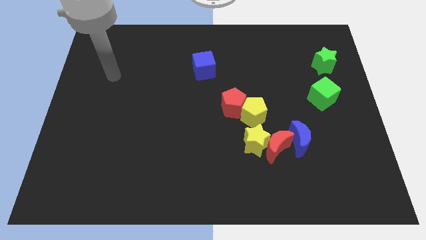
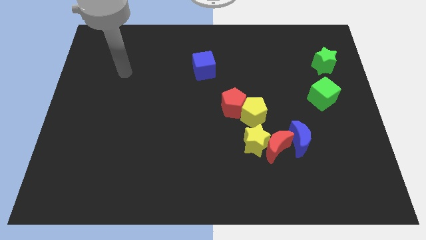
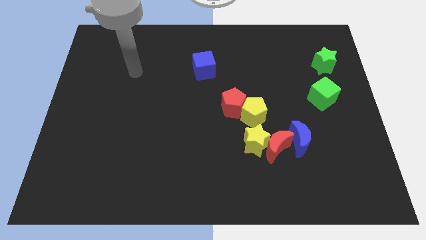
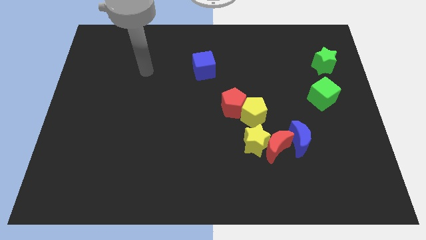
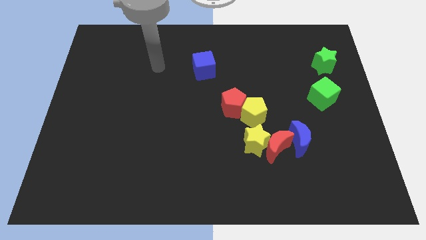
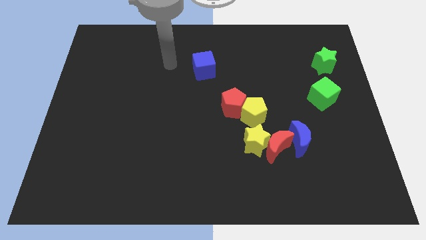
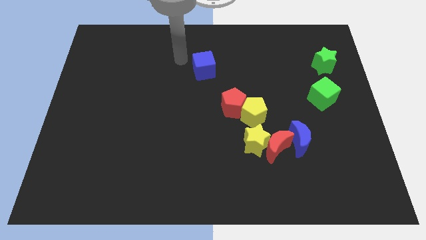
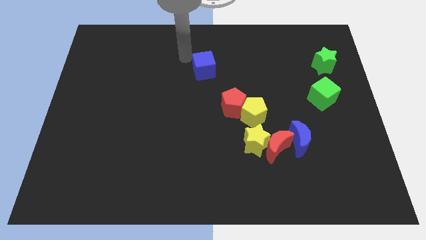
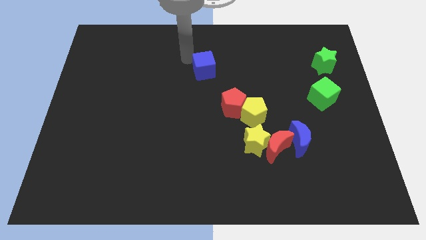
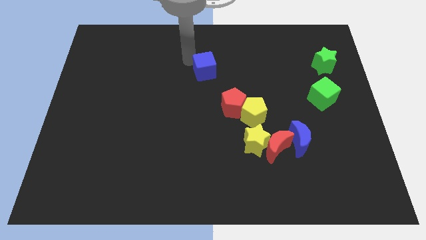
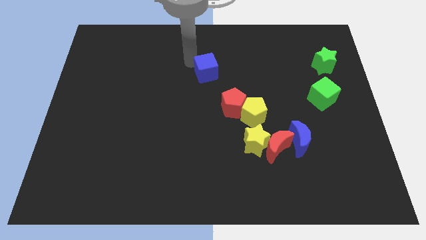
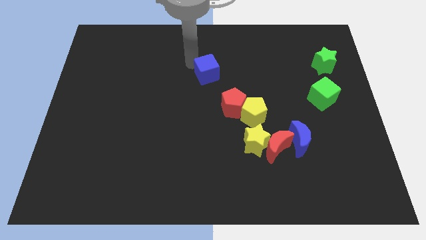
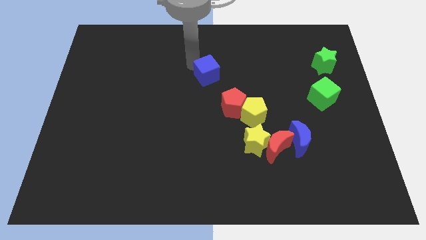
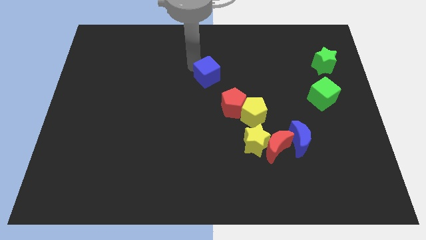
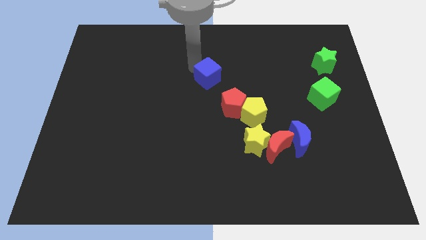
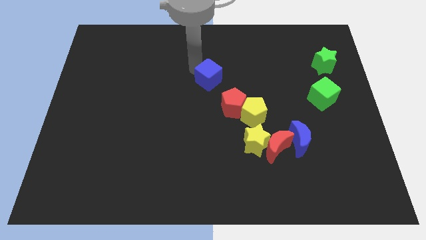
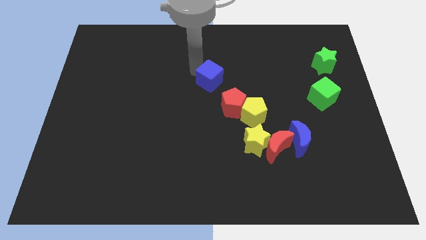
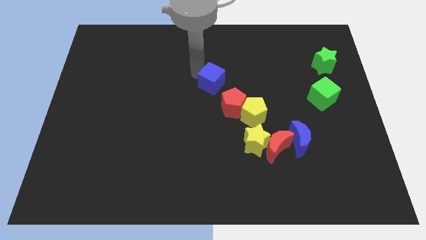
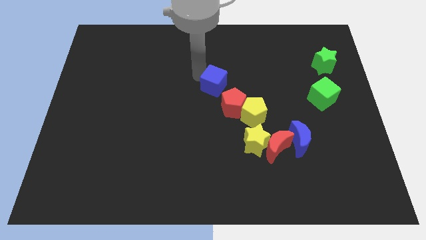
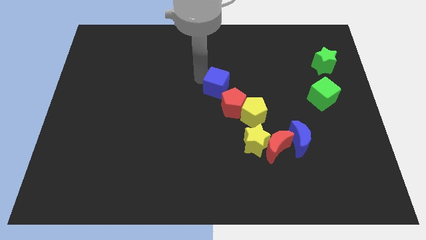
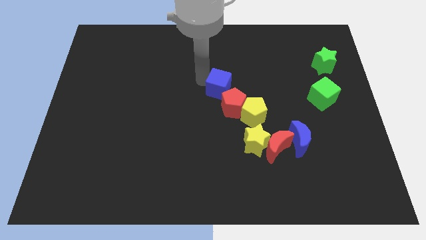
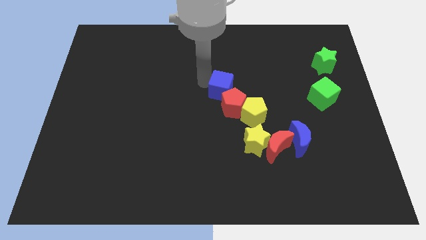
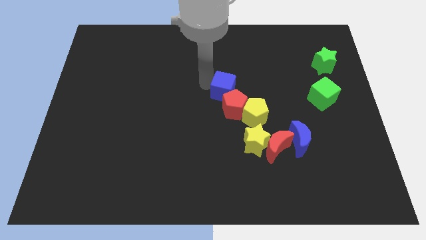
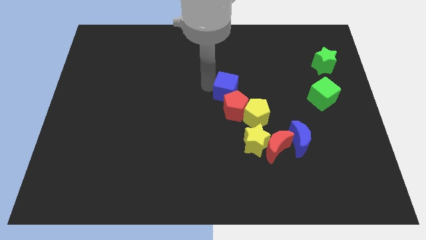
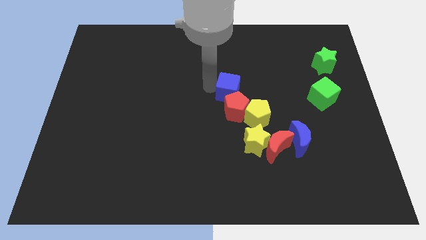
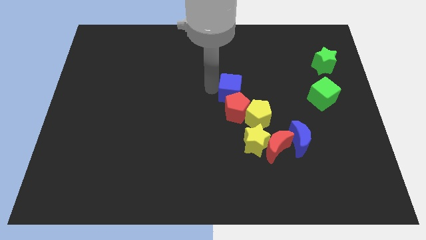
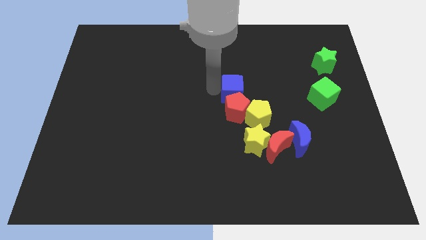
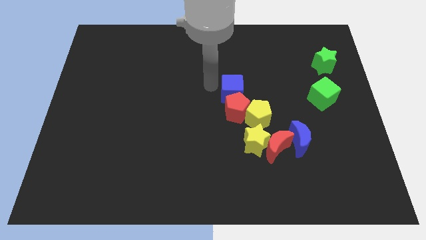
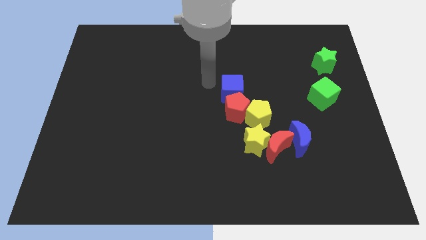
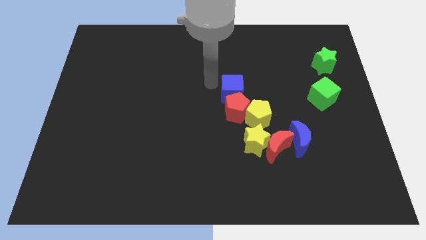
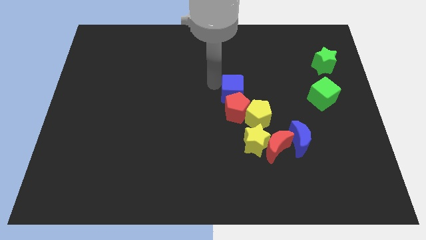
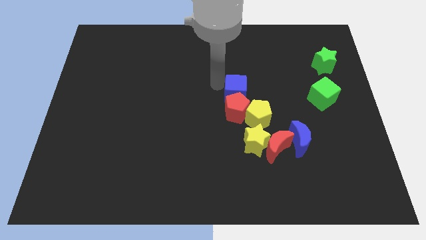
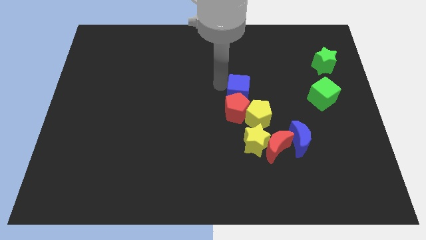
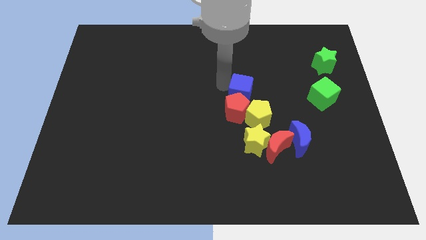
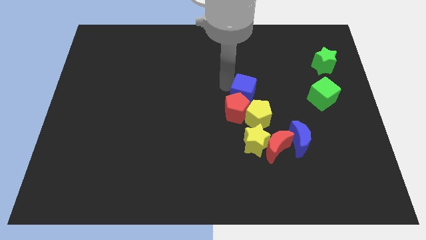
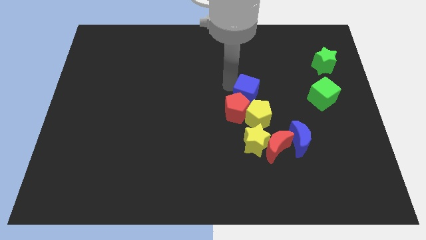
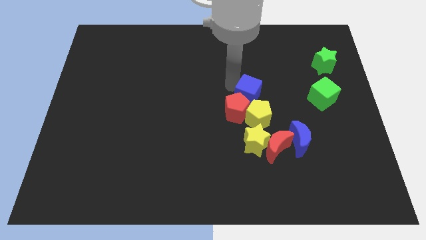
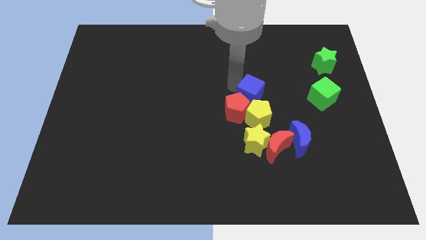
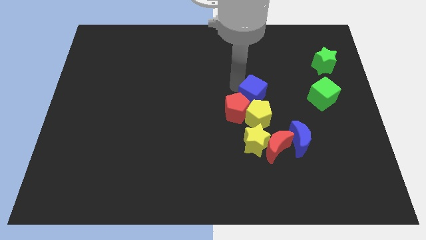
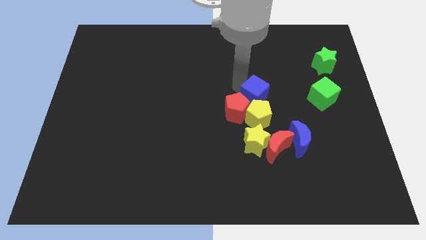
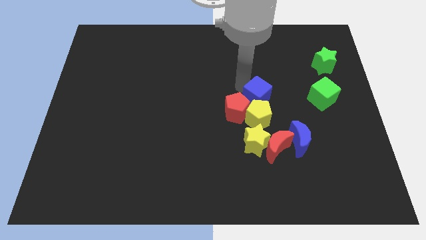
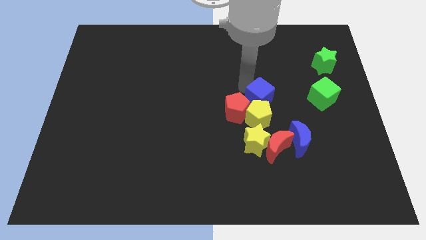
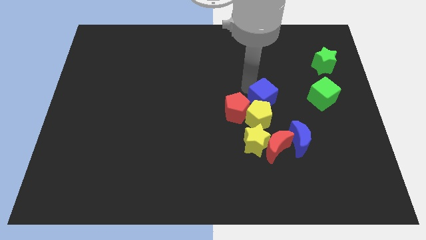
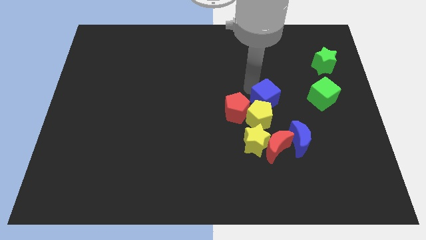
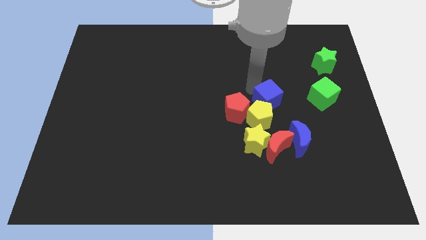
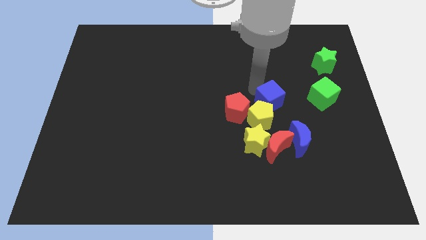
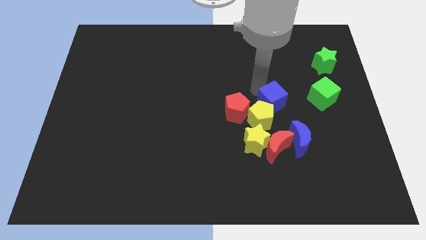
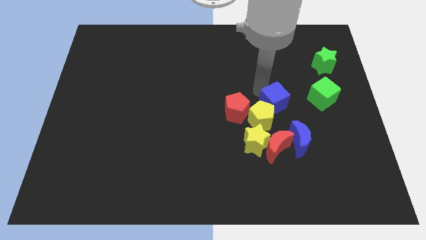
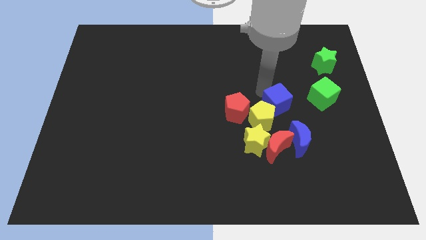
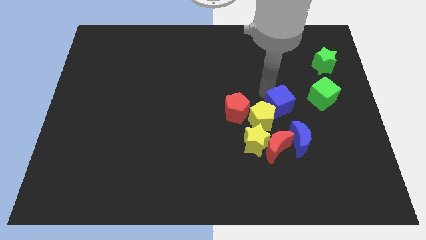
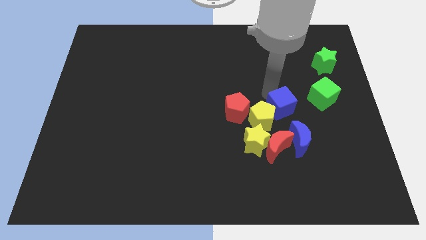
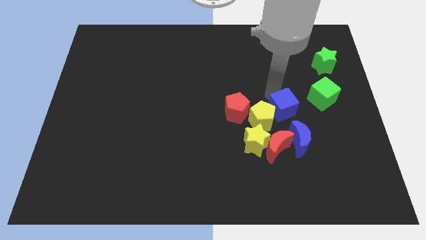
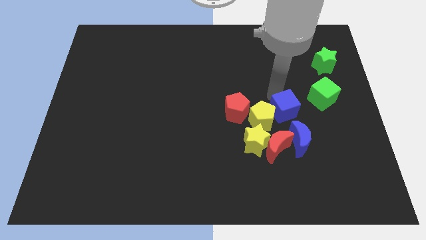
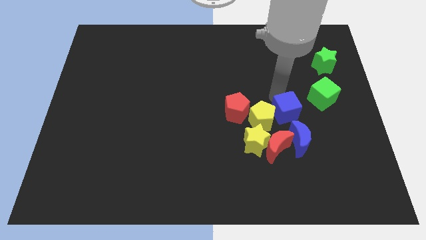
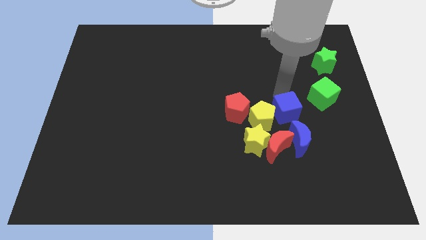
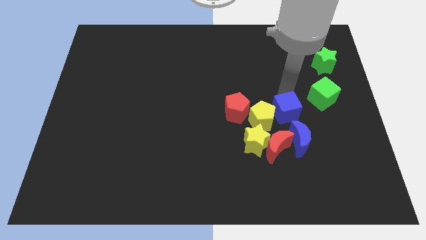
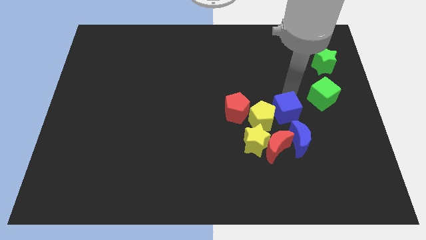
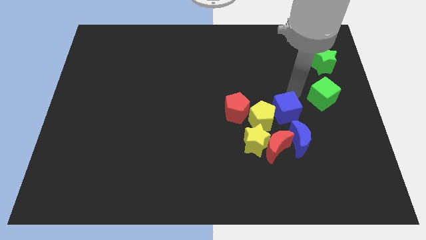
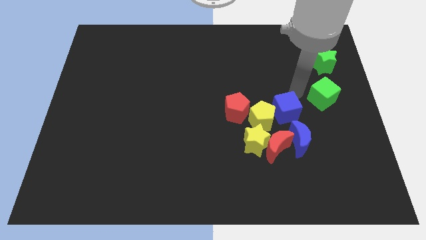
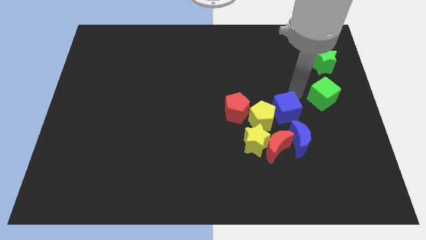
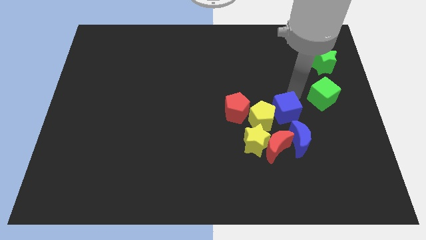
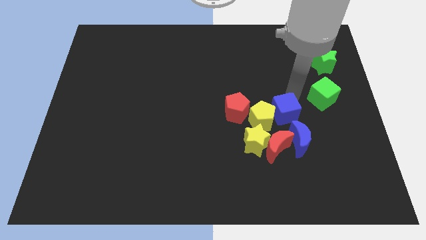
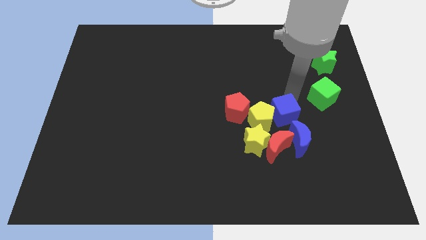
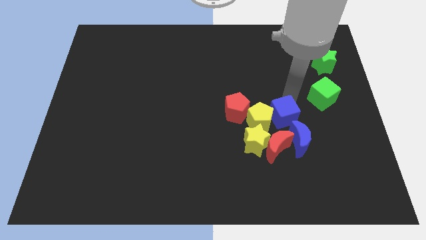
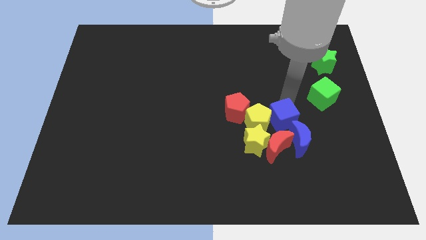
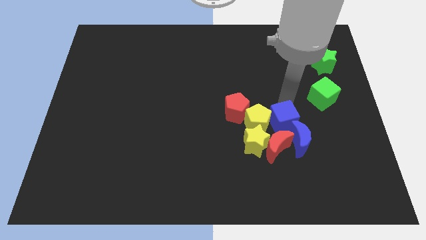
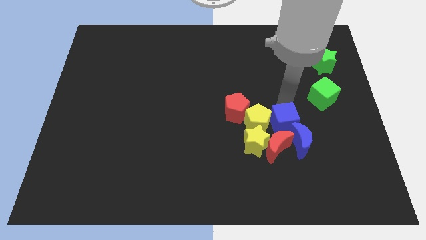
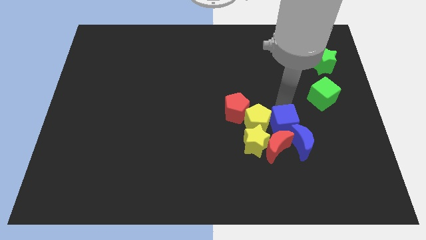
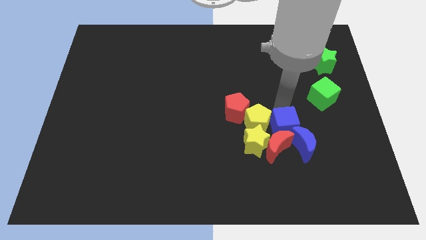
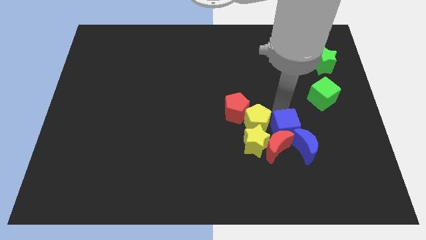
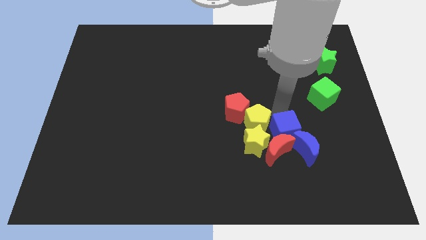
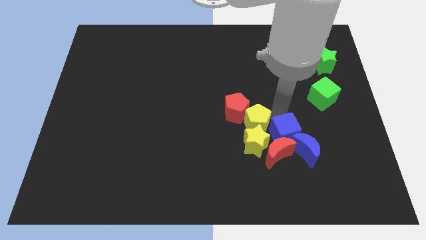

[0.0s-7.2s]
put the blue cube to the blue moon

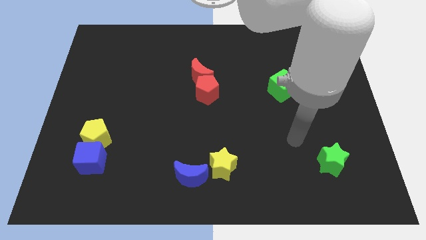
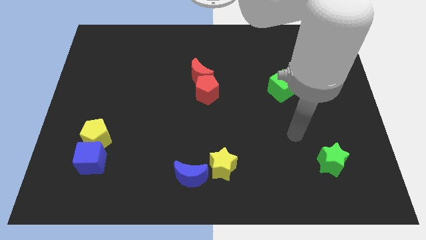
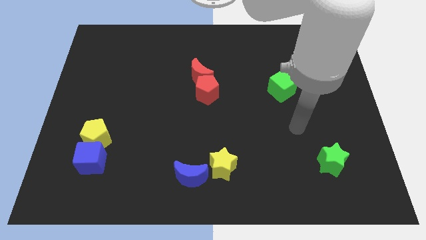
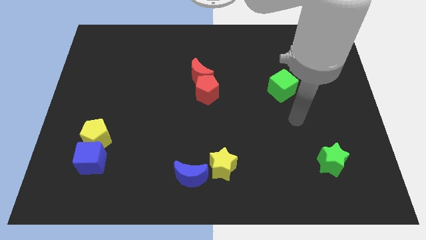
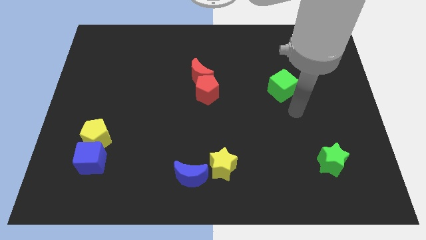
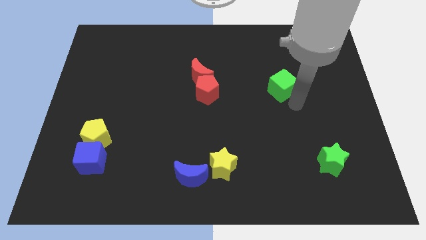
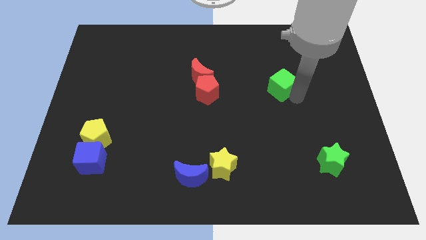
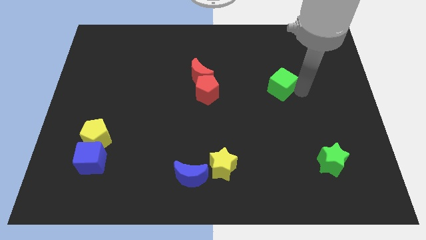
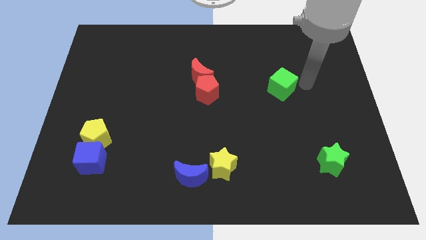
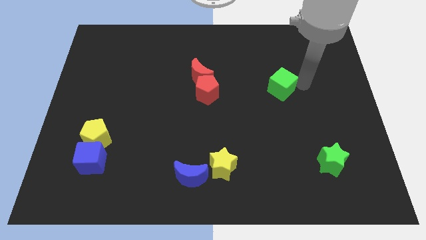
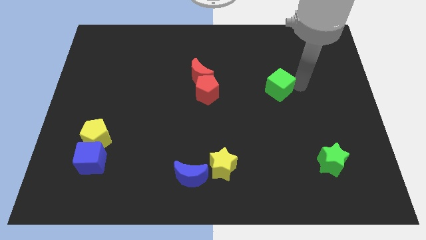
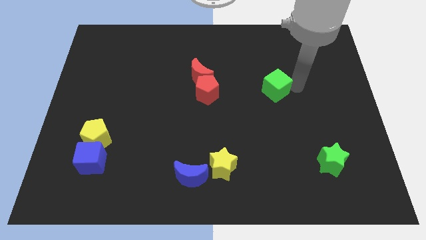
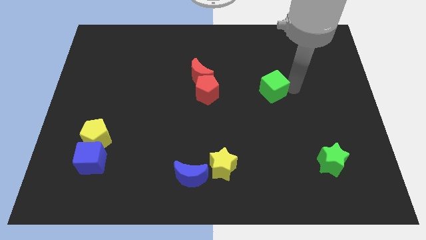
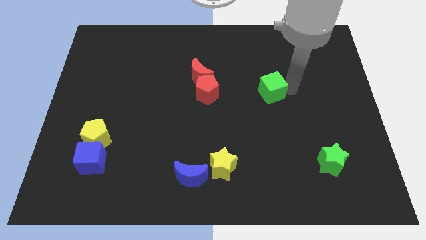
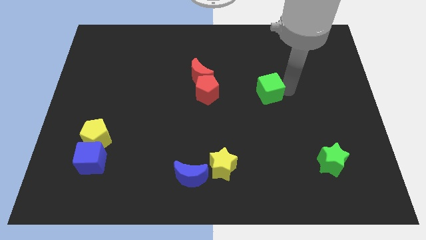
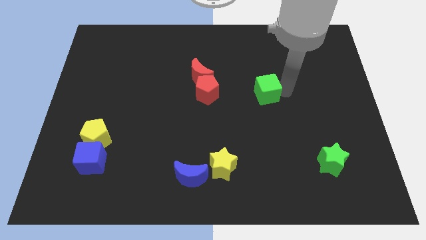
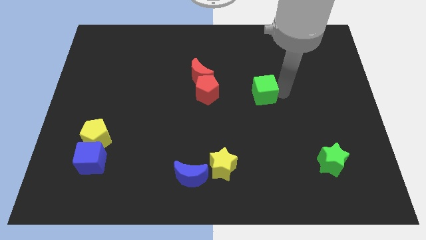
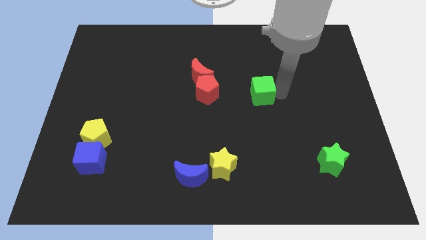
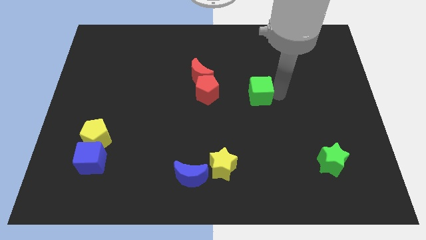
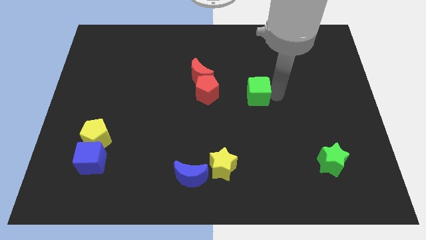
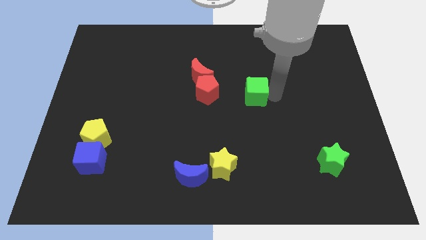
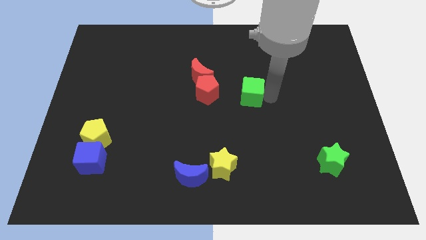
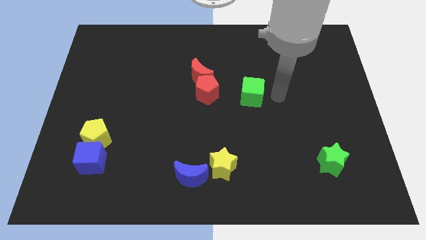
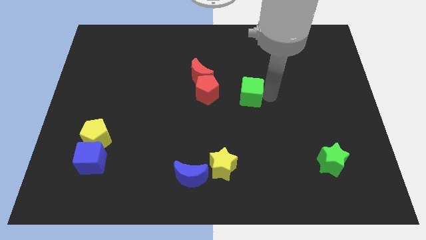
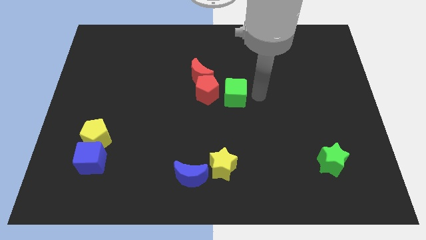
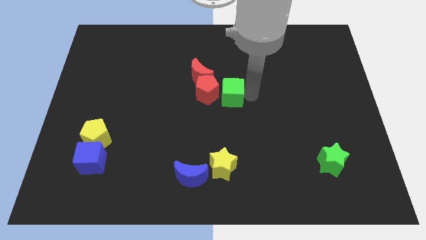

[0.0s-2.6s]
put the green cube next to the red pentagon
